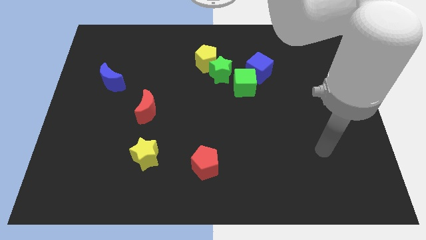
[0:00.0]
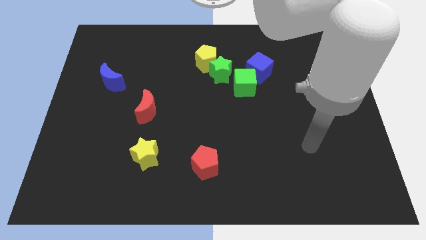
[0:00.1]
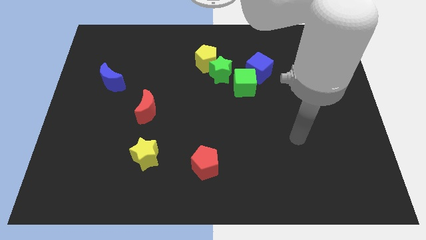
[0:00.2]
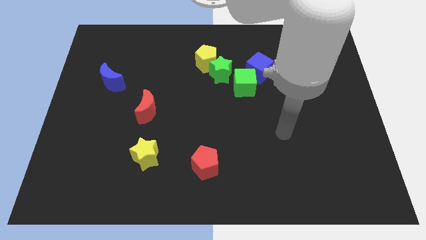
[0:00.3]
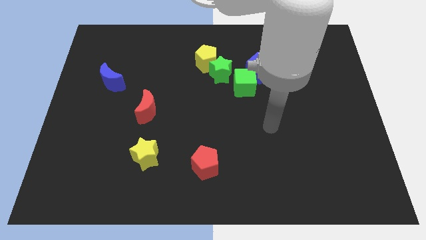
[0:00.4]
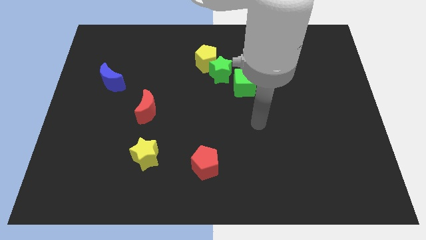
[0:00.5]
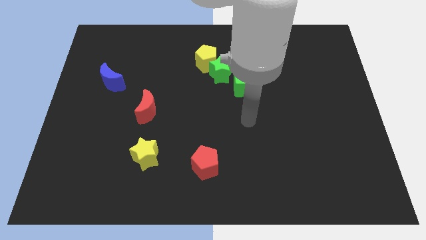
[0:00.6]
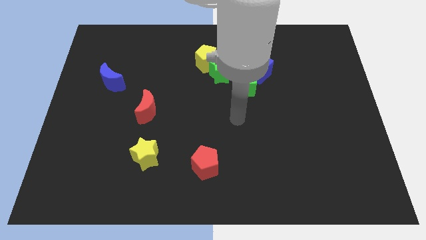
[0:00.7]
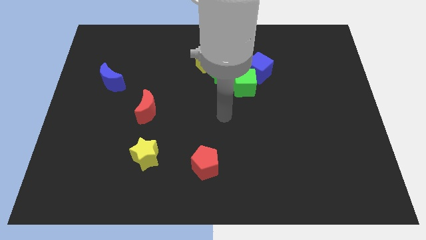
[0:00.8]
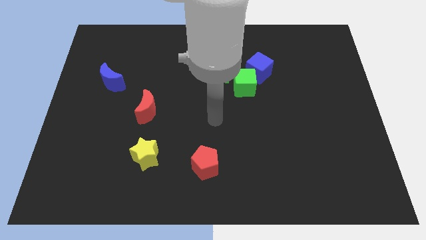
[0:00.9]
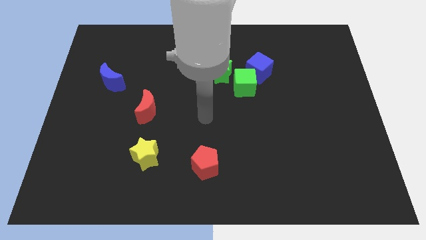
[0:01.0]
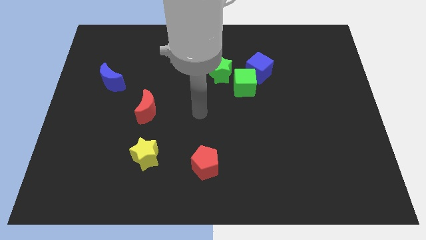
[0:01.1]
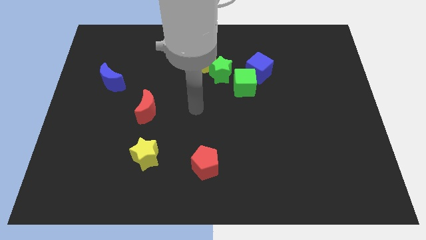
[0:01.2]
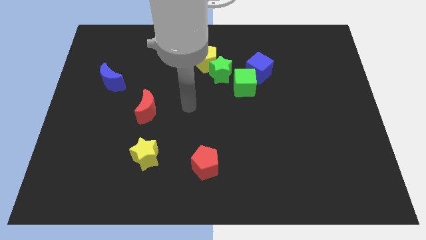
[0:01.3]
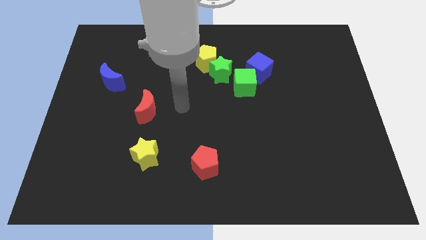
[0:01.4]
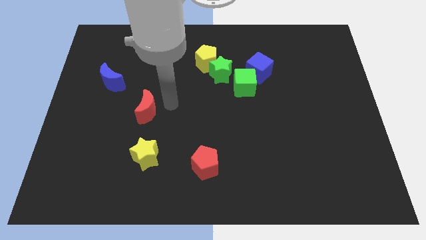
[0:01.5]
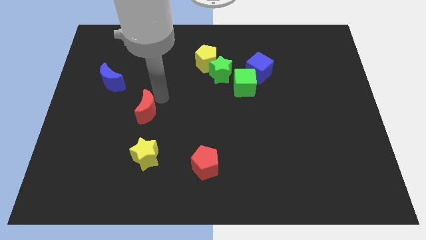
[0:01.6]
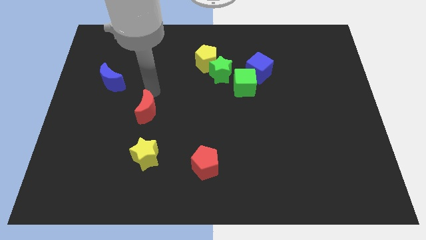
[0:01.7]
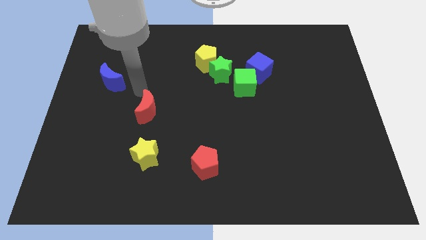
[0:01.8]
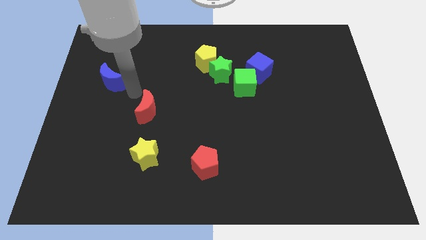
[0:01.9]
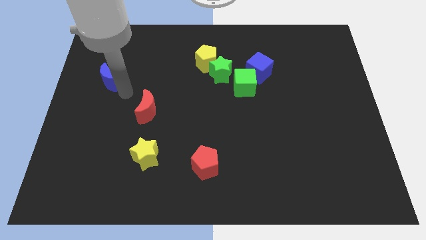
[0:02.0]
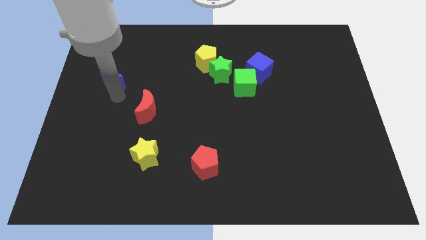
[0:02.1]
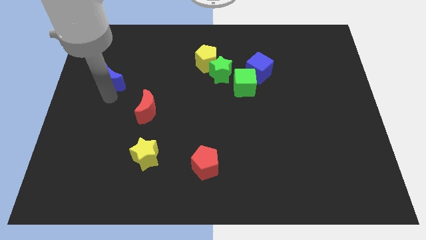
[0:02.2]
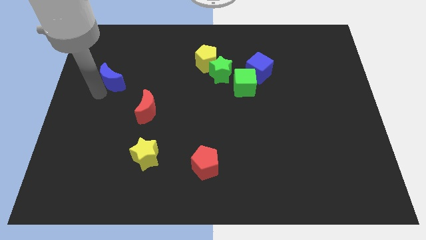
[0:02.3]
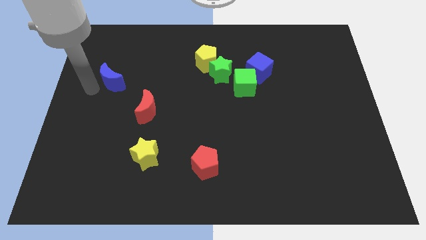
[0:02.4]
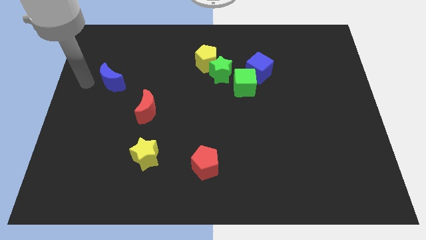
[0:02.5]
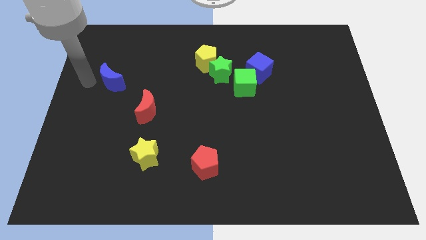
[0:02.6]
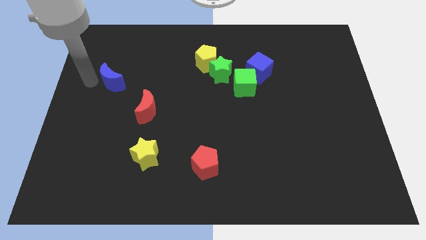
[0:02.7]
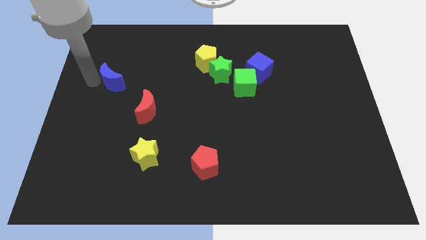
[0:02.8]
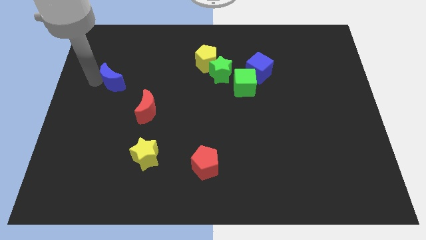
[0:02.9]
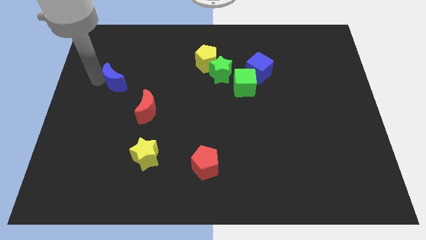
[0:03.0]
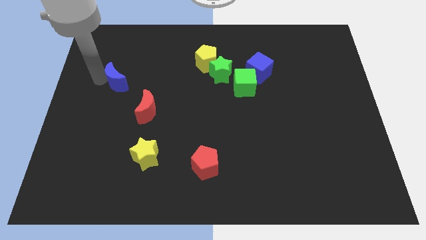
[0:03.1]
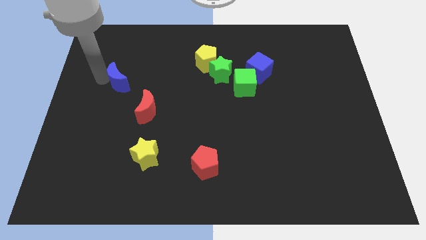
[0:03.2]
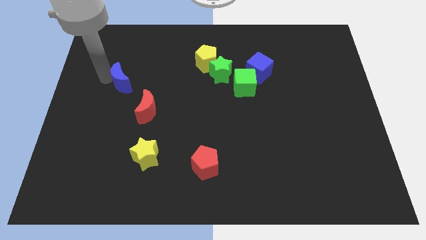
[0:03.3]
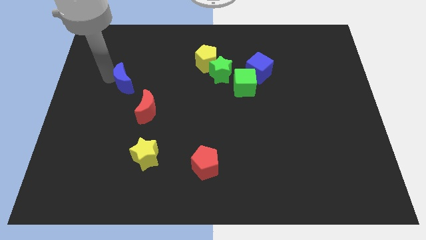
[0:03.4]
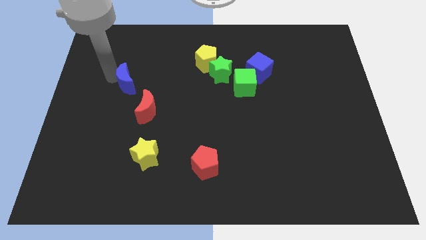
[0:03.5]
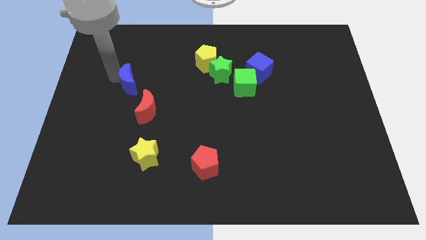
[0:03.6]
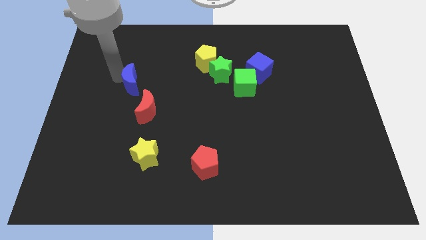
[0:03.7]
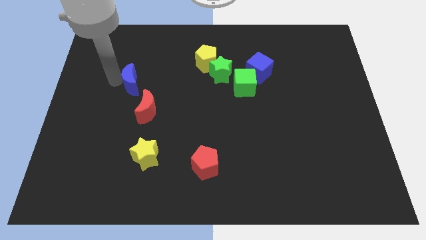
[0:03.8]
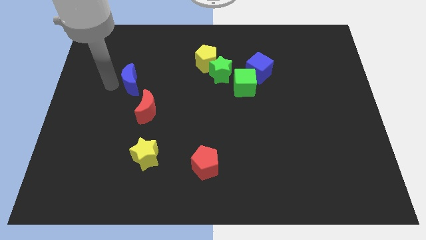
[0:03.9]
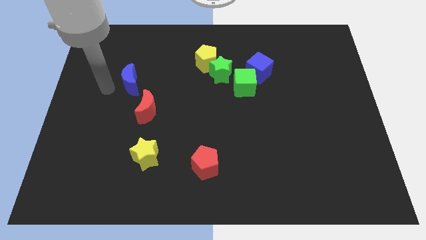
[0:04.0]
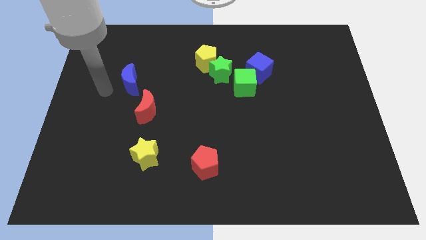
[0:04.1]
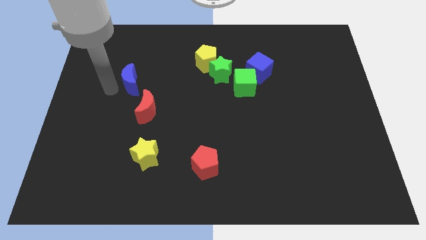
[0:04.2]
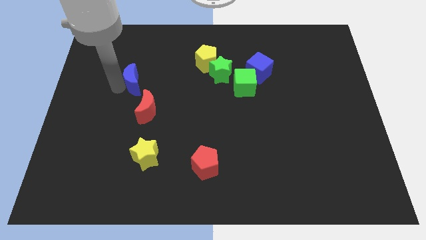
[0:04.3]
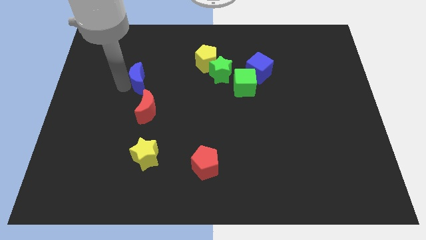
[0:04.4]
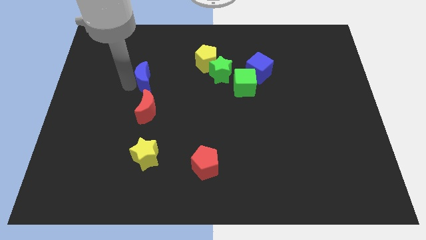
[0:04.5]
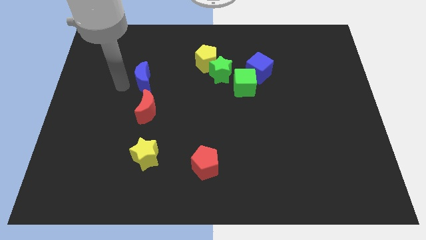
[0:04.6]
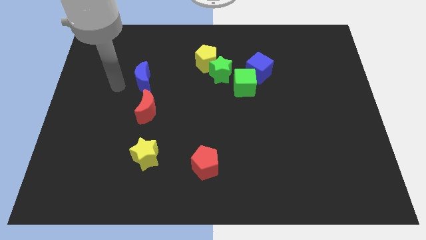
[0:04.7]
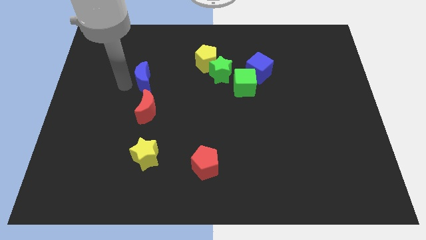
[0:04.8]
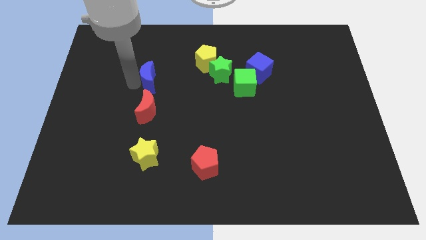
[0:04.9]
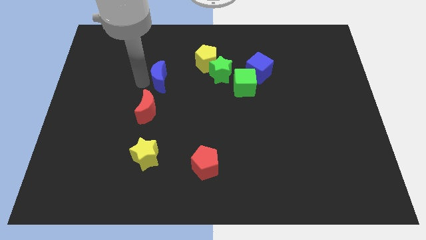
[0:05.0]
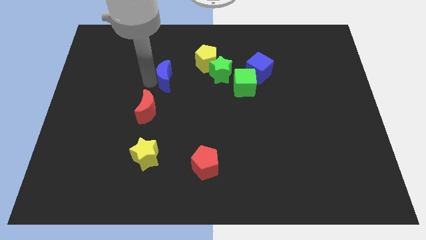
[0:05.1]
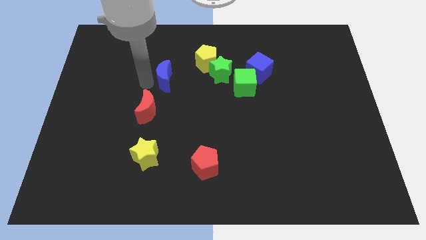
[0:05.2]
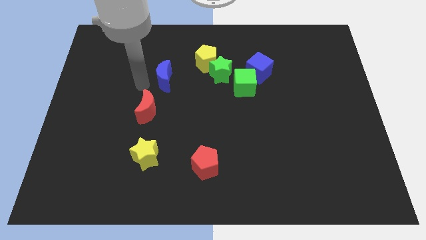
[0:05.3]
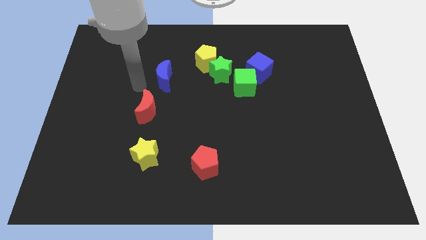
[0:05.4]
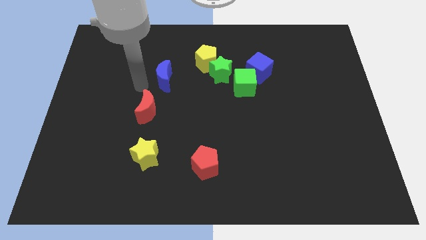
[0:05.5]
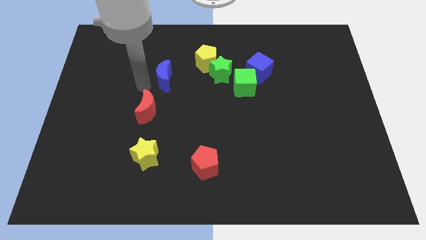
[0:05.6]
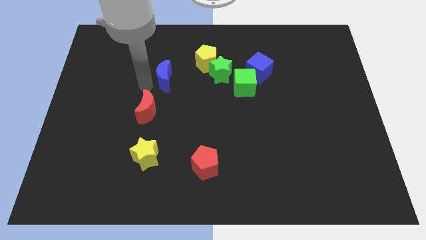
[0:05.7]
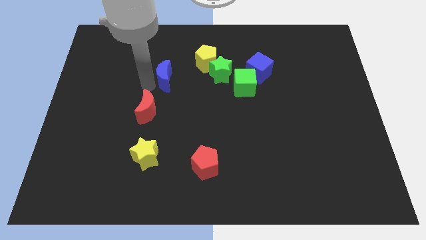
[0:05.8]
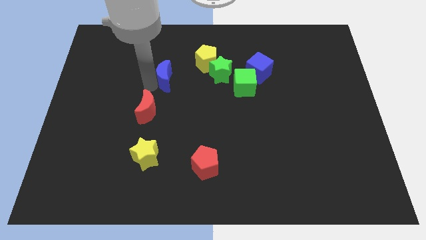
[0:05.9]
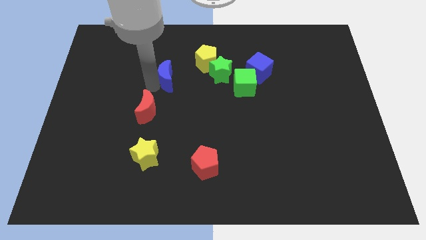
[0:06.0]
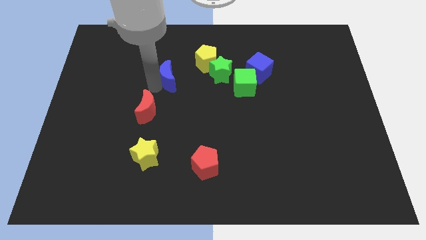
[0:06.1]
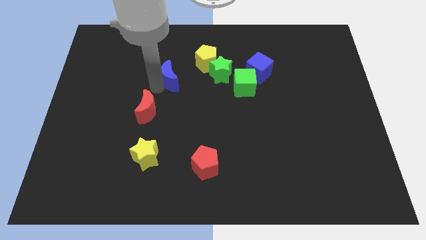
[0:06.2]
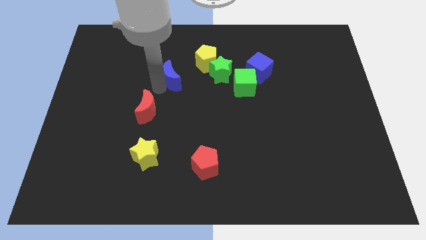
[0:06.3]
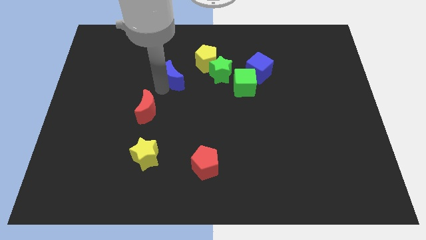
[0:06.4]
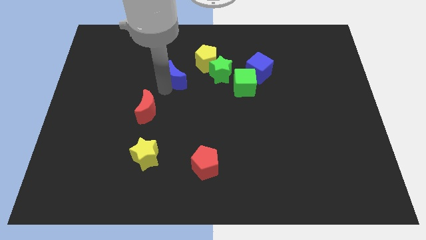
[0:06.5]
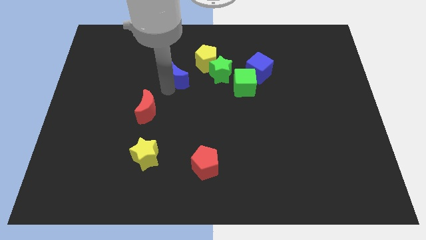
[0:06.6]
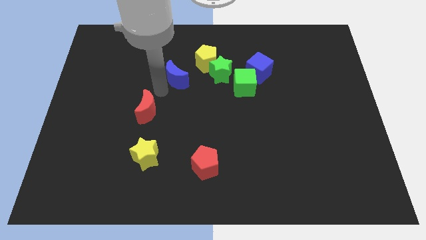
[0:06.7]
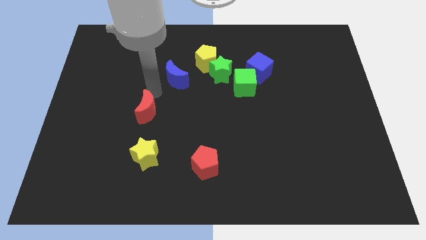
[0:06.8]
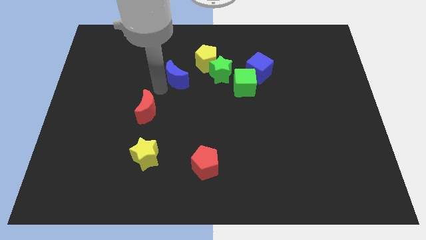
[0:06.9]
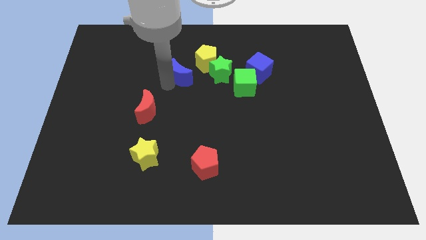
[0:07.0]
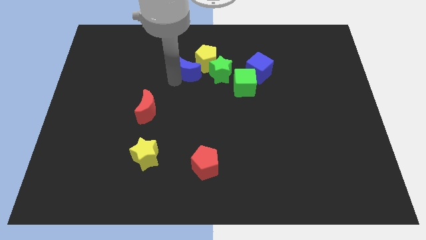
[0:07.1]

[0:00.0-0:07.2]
slide the blue moon next to the yellow pentagon
